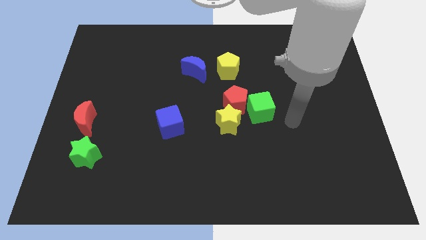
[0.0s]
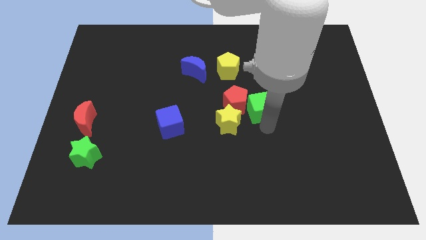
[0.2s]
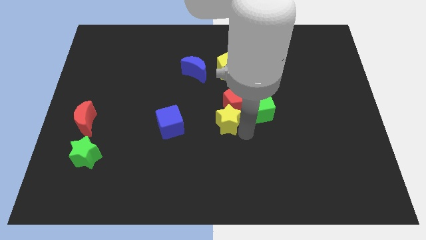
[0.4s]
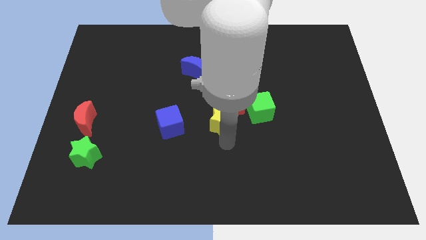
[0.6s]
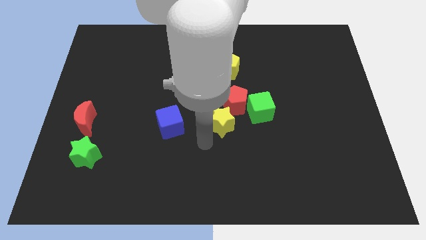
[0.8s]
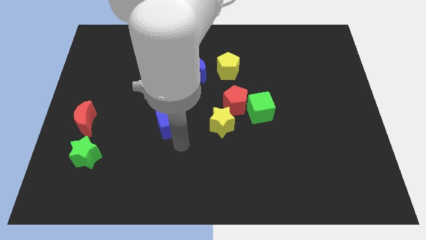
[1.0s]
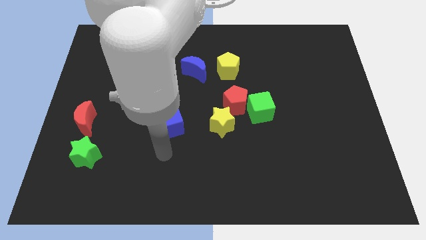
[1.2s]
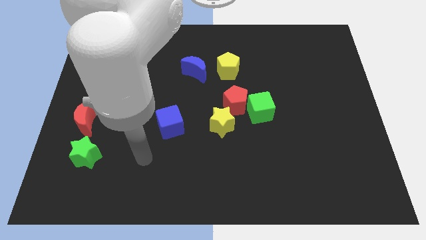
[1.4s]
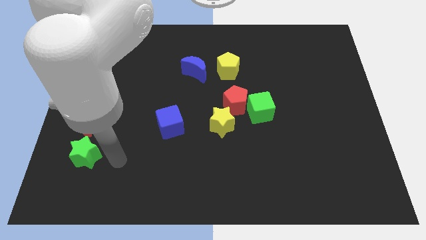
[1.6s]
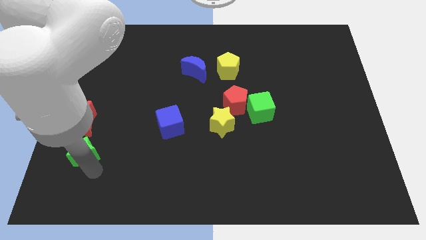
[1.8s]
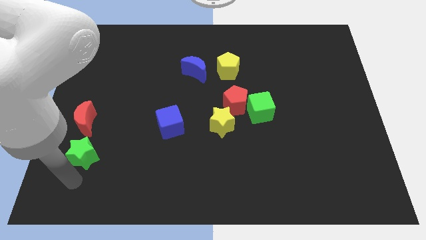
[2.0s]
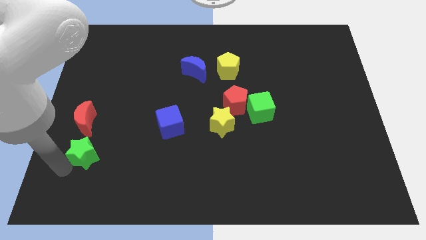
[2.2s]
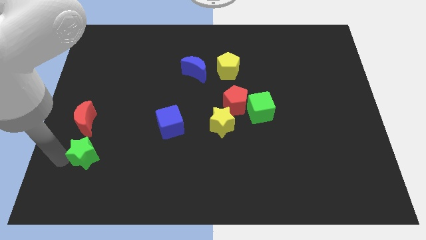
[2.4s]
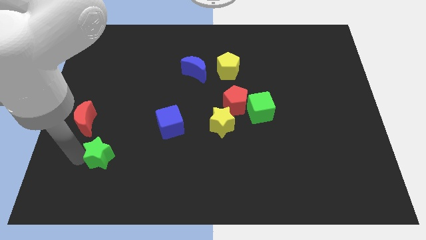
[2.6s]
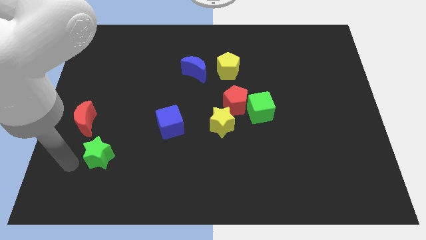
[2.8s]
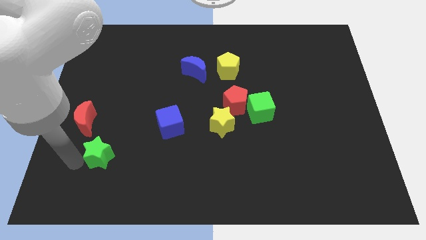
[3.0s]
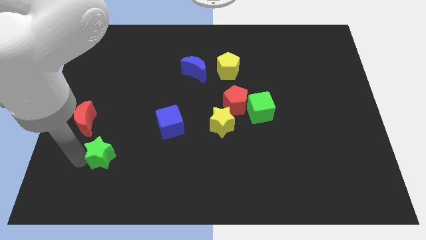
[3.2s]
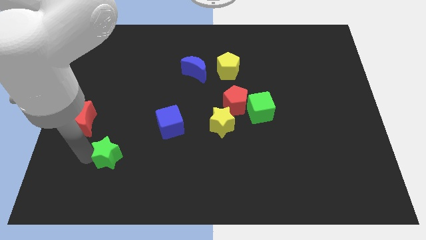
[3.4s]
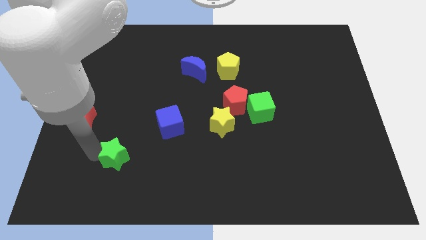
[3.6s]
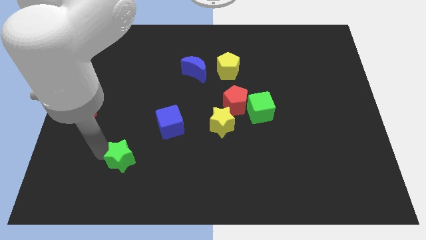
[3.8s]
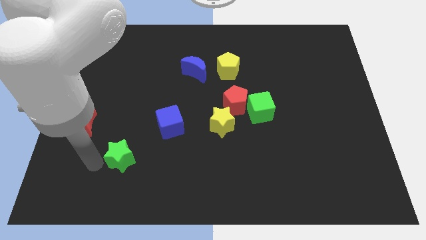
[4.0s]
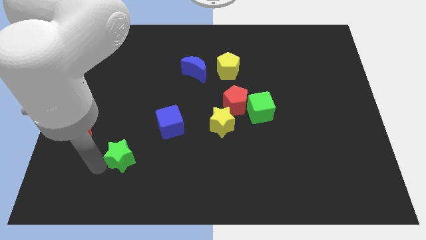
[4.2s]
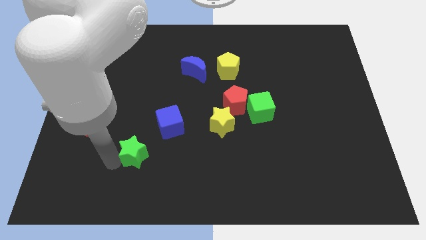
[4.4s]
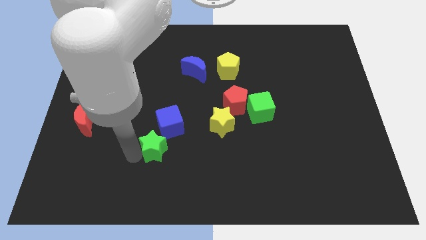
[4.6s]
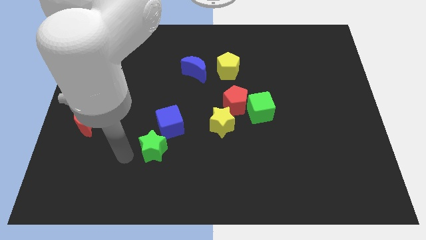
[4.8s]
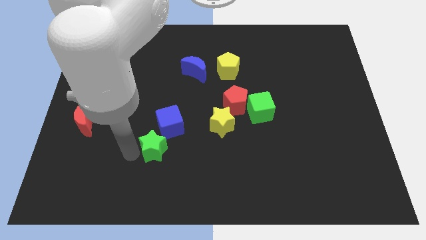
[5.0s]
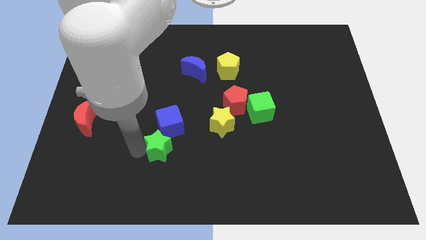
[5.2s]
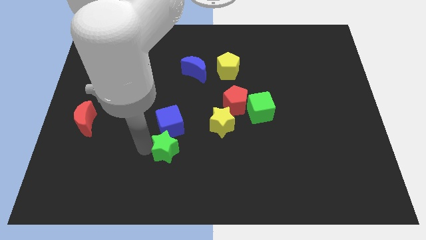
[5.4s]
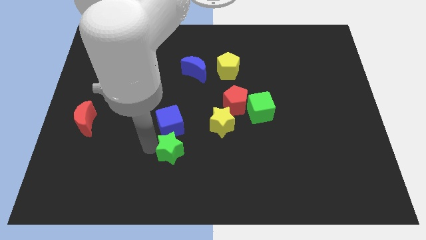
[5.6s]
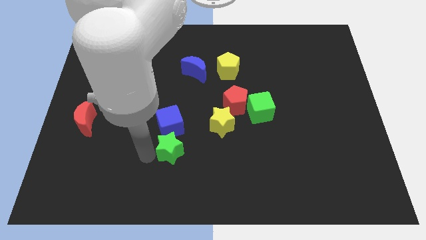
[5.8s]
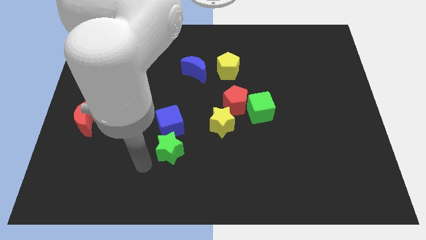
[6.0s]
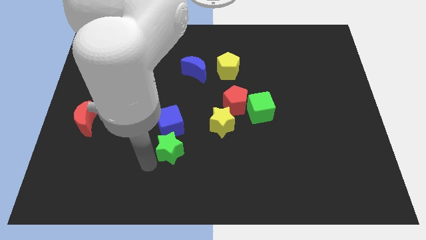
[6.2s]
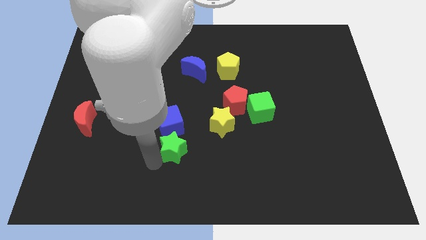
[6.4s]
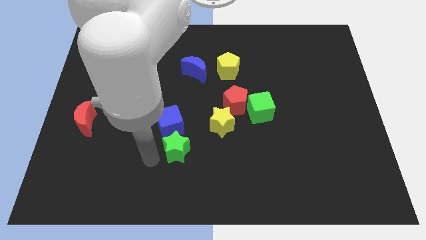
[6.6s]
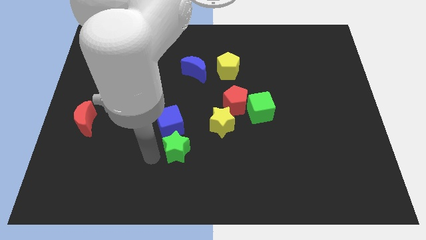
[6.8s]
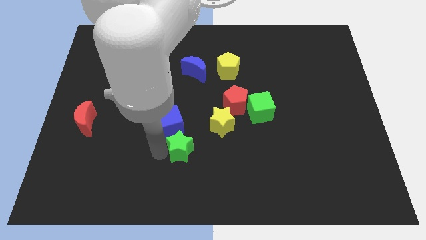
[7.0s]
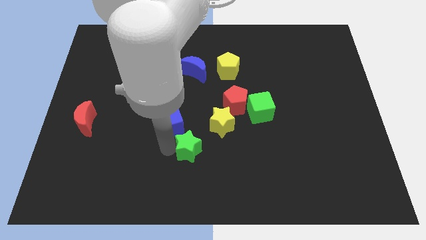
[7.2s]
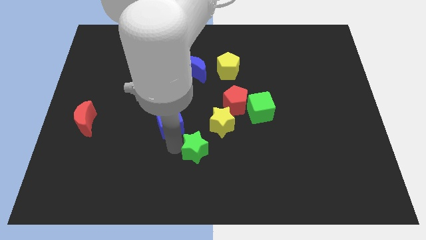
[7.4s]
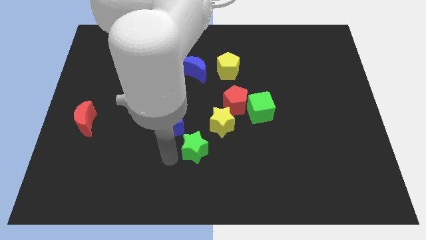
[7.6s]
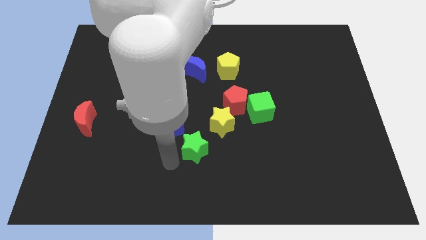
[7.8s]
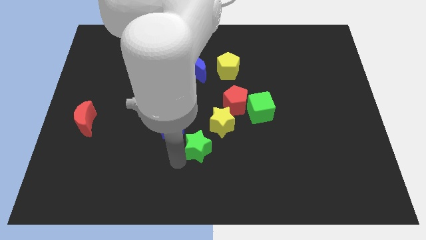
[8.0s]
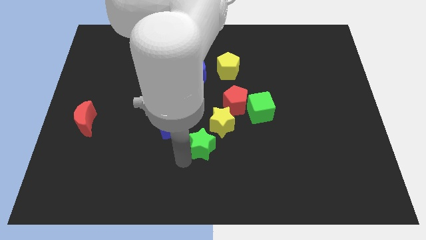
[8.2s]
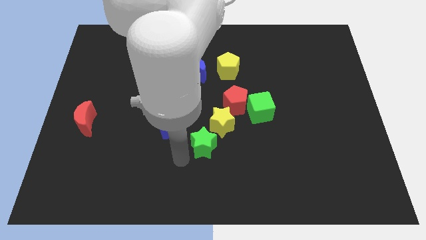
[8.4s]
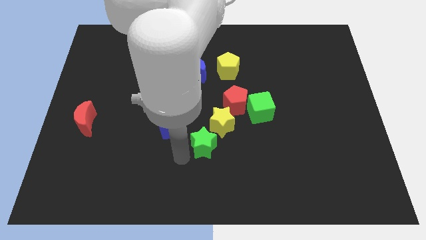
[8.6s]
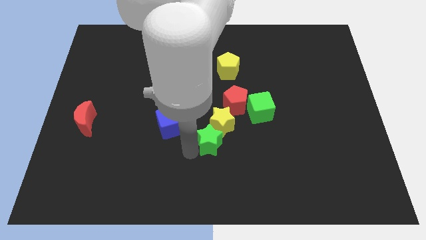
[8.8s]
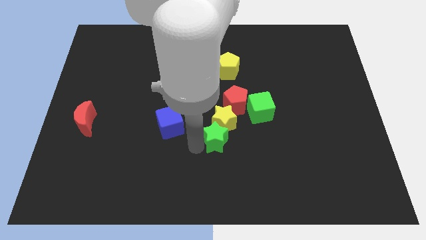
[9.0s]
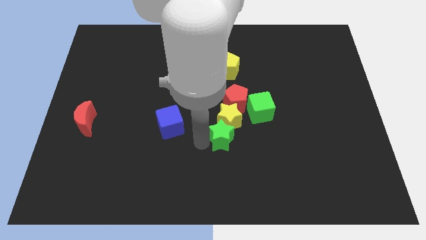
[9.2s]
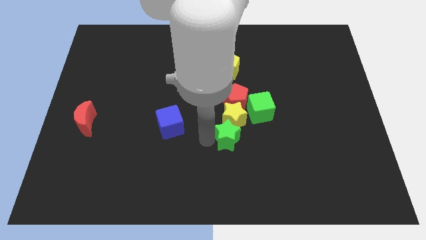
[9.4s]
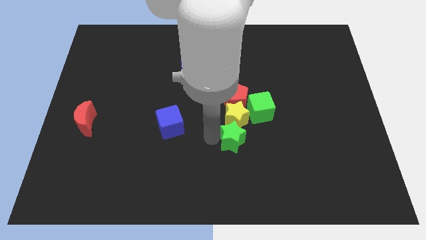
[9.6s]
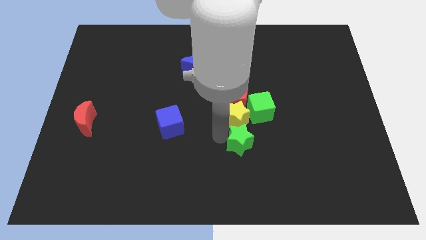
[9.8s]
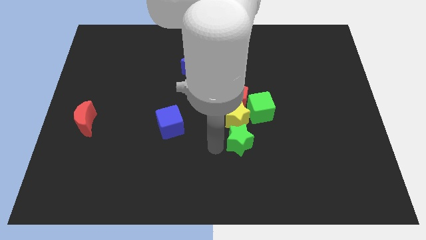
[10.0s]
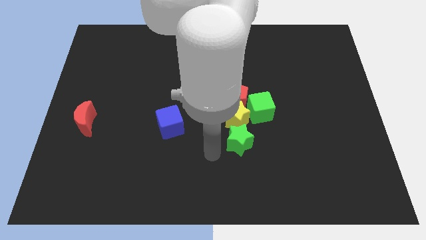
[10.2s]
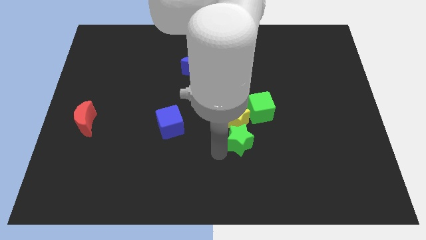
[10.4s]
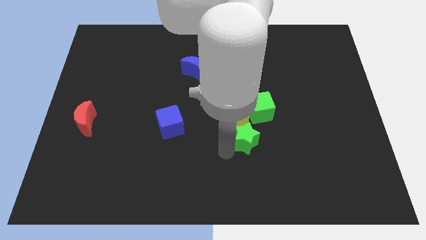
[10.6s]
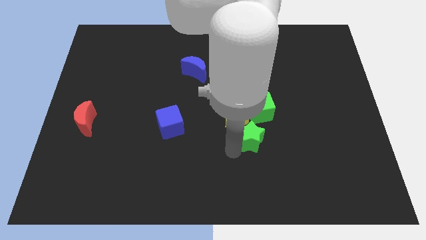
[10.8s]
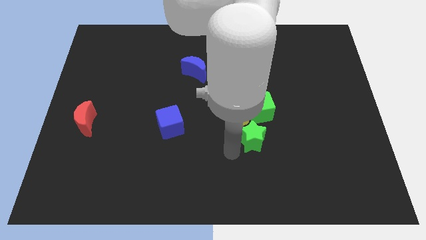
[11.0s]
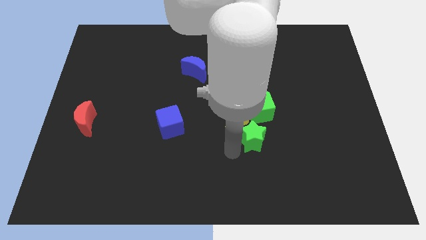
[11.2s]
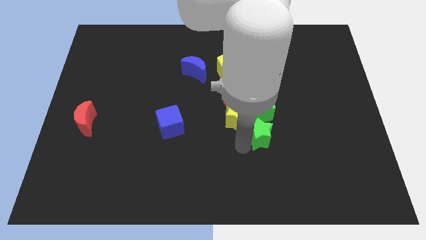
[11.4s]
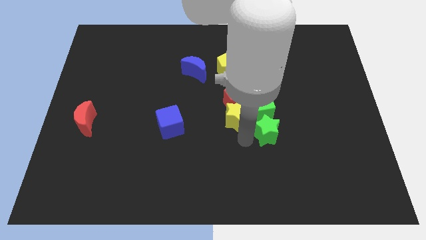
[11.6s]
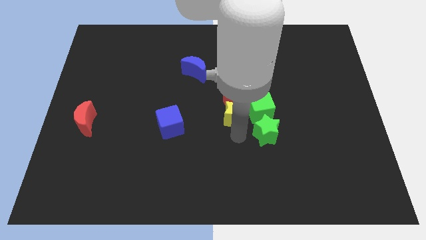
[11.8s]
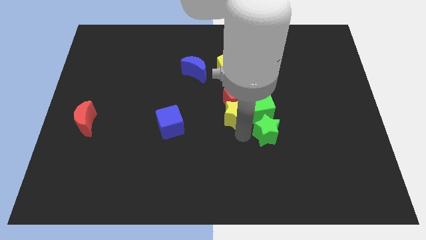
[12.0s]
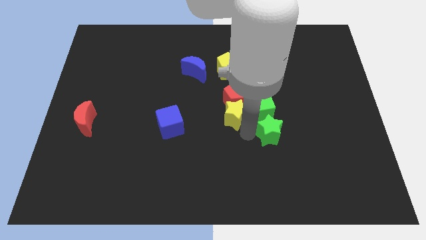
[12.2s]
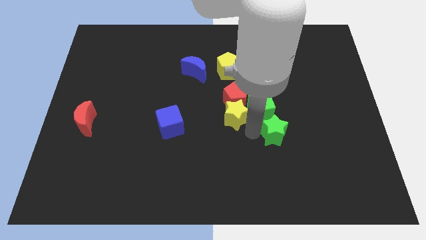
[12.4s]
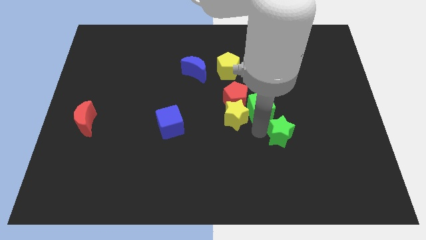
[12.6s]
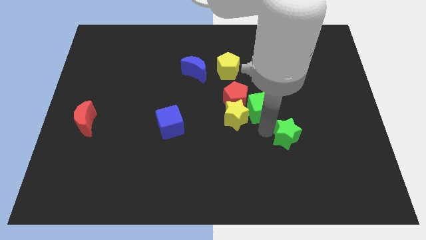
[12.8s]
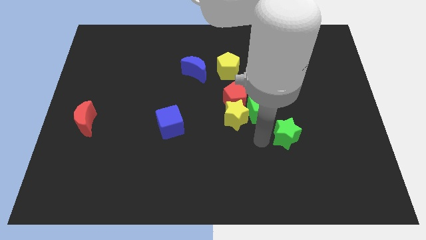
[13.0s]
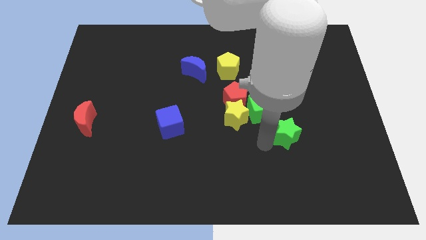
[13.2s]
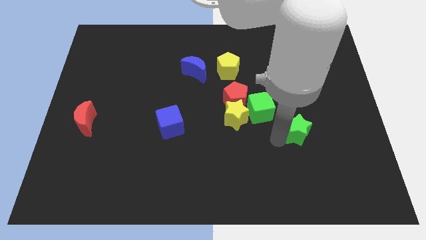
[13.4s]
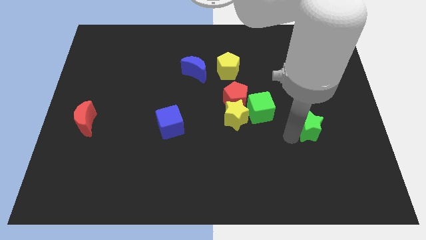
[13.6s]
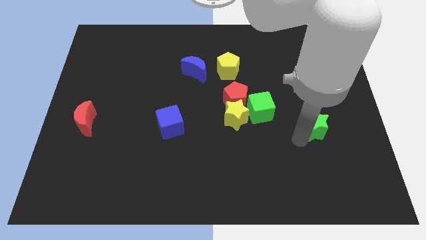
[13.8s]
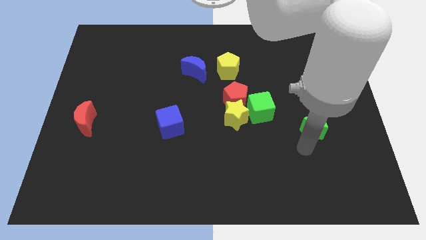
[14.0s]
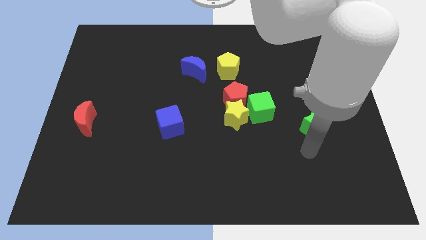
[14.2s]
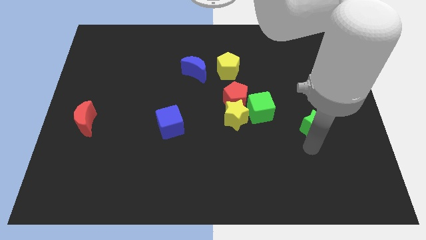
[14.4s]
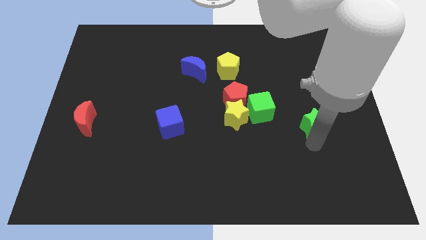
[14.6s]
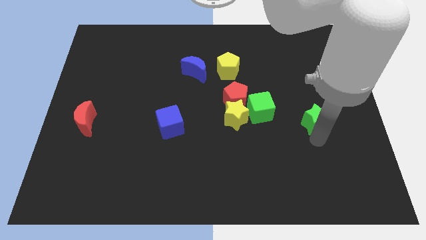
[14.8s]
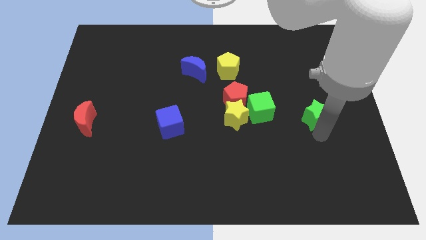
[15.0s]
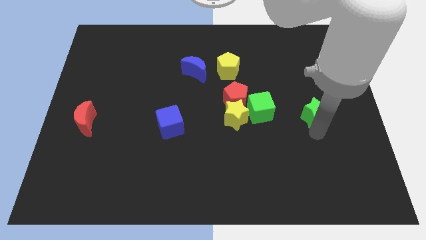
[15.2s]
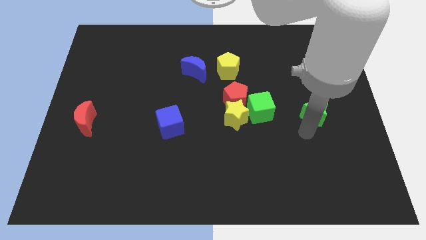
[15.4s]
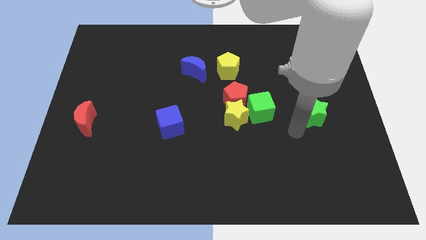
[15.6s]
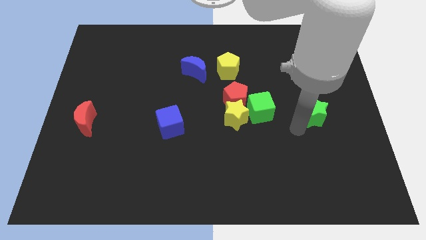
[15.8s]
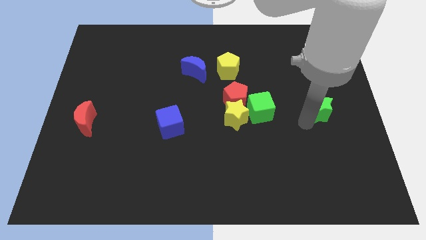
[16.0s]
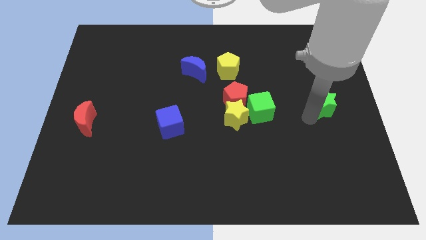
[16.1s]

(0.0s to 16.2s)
put the green star to the right side of the board
